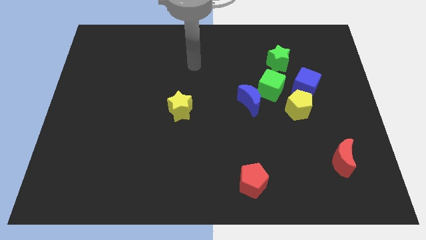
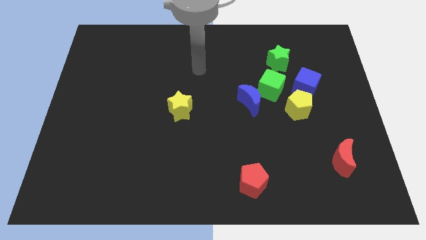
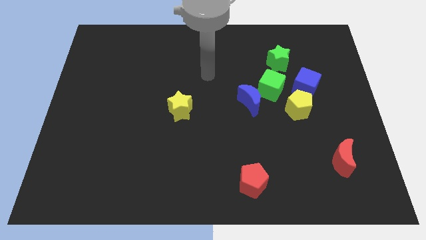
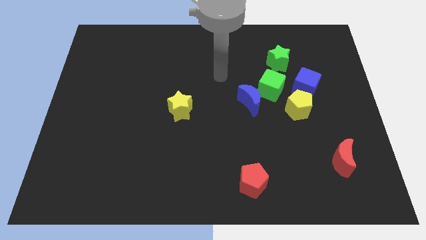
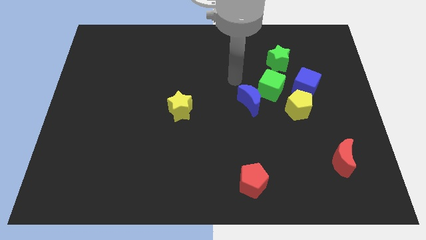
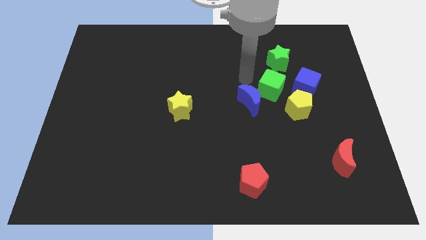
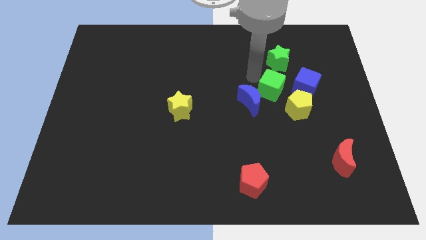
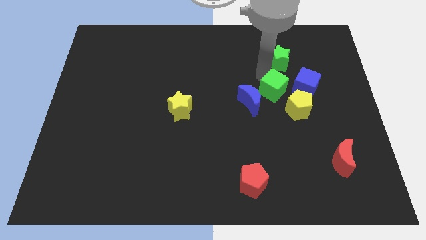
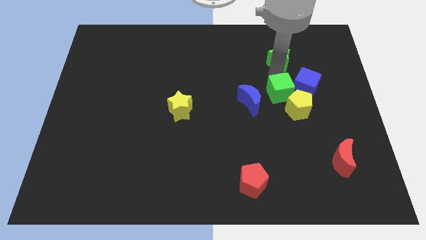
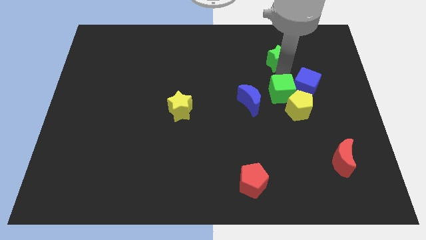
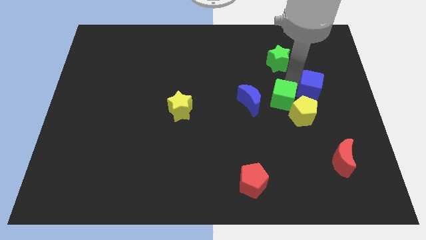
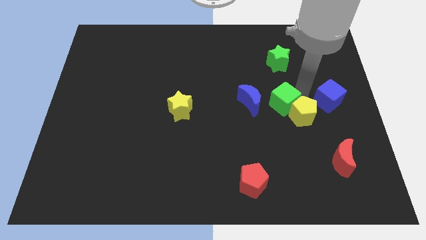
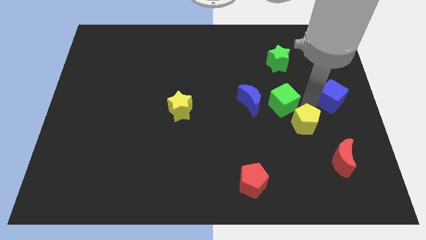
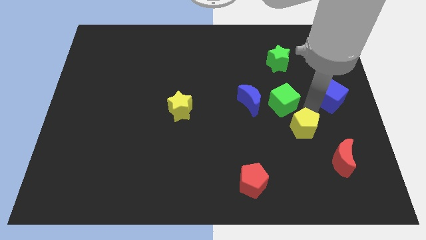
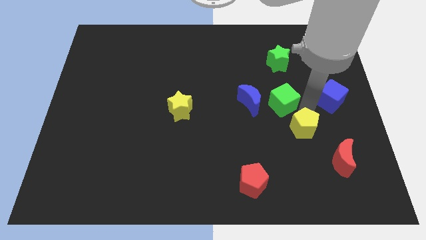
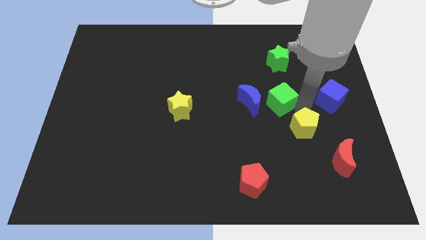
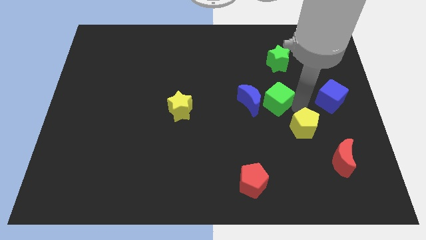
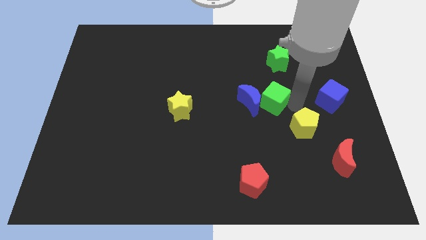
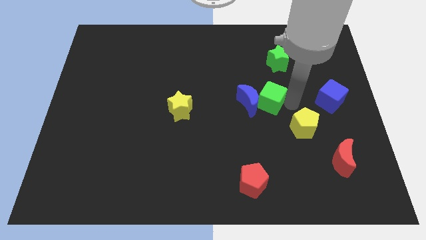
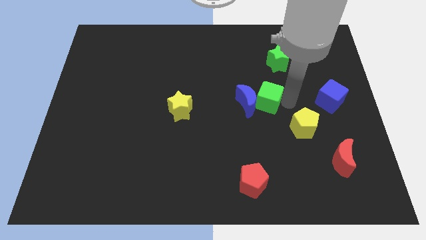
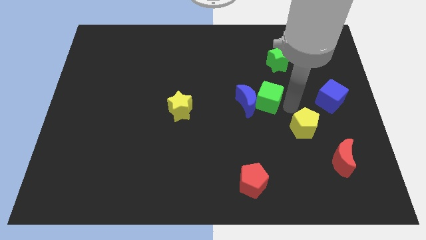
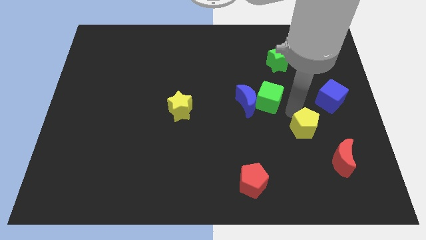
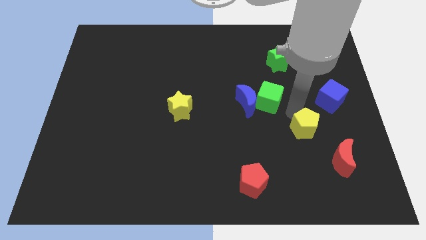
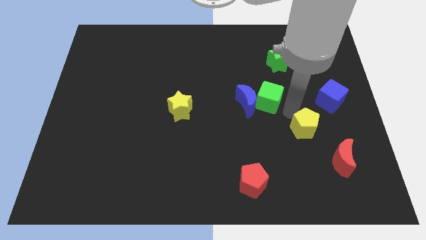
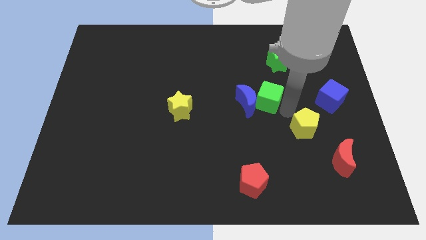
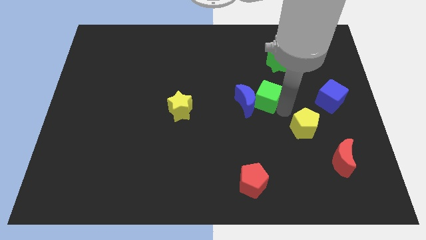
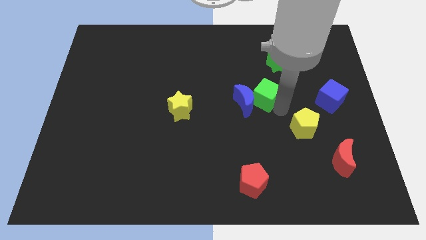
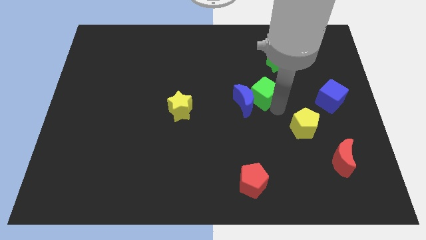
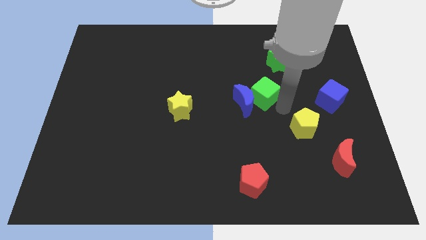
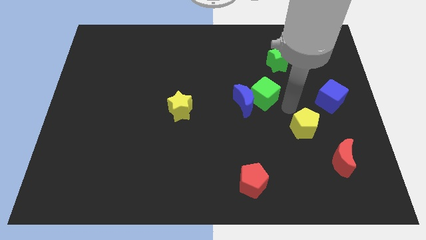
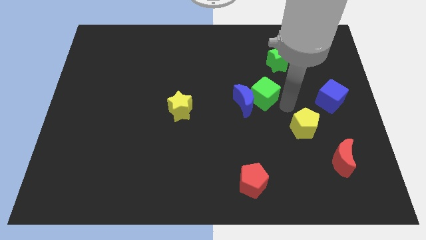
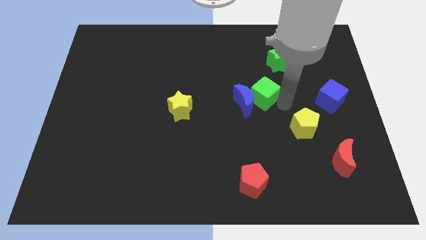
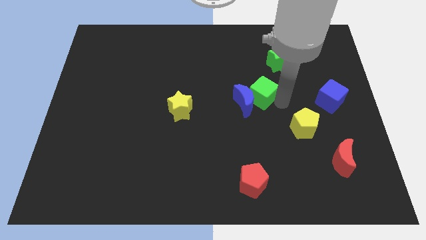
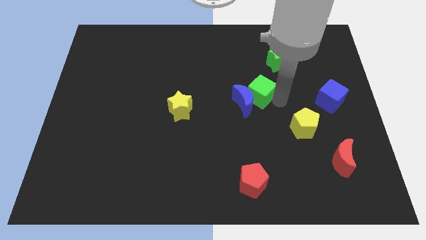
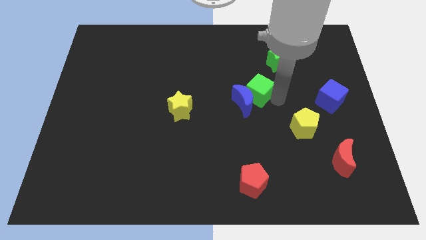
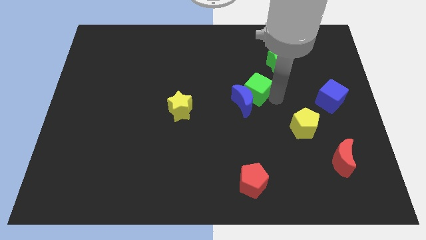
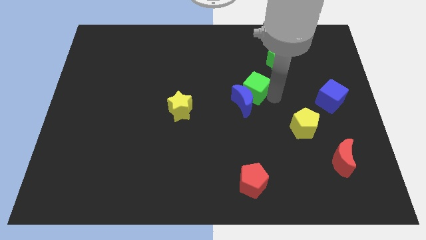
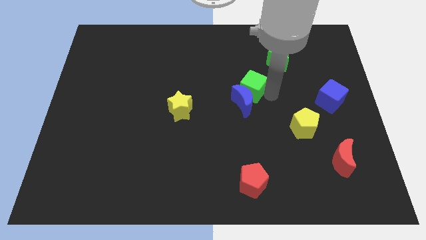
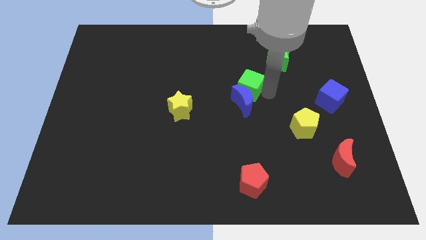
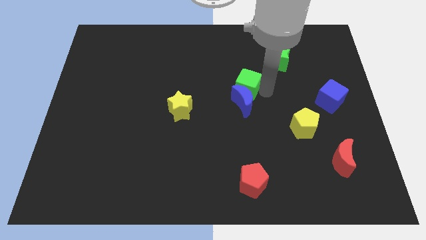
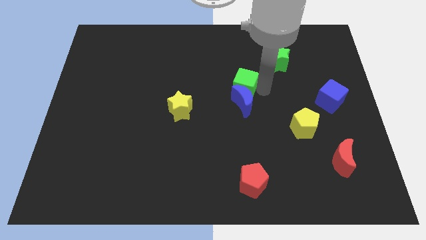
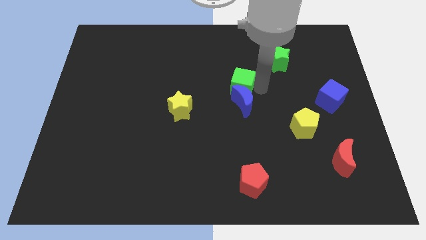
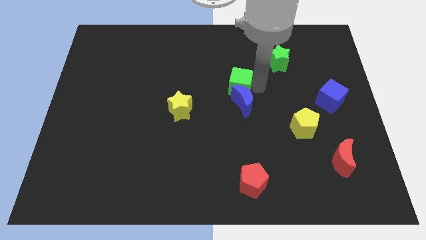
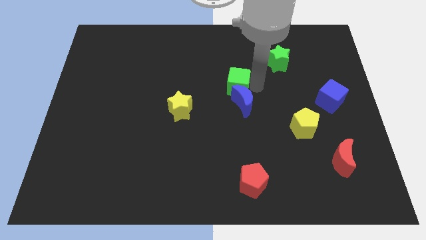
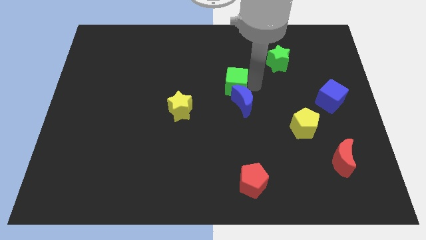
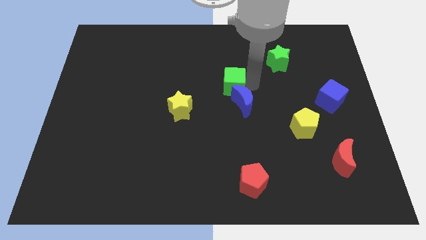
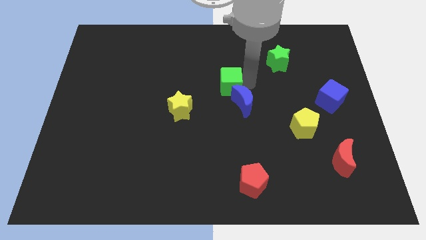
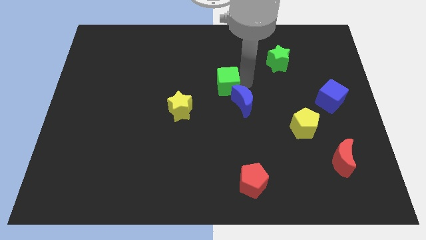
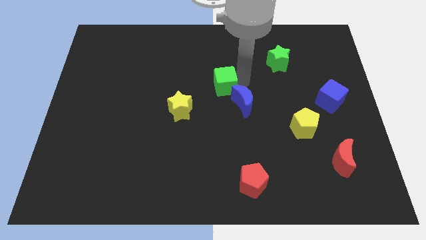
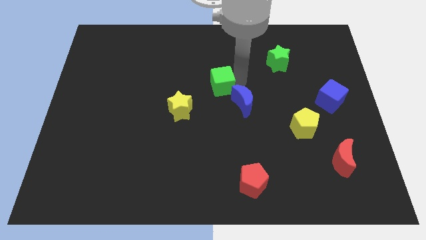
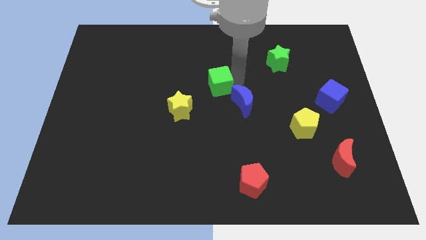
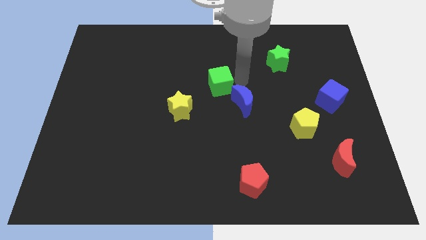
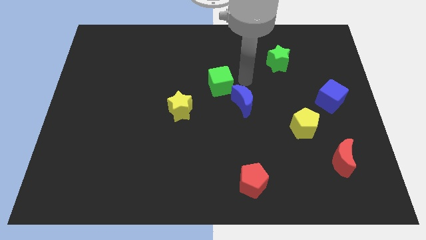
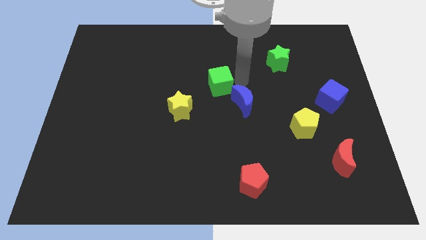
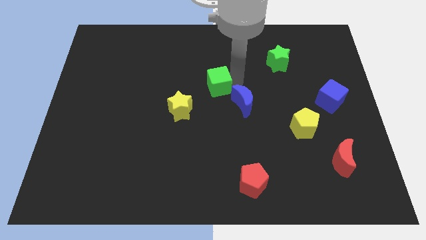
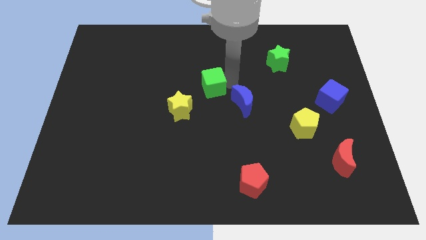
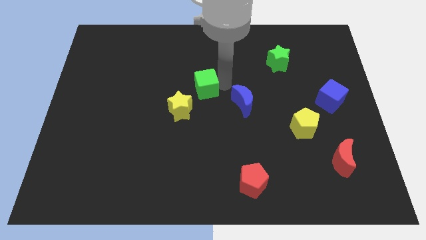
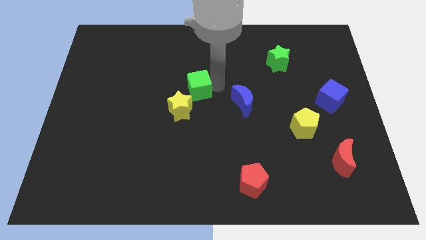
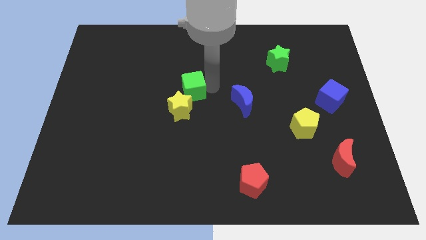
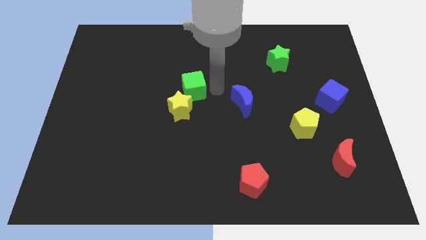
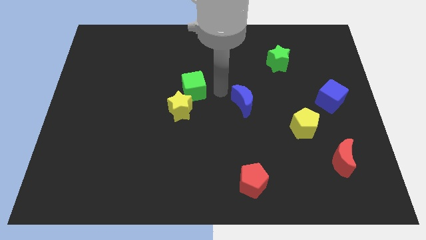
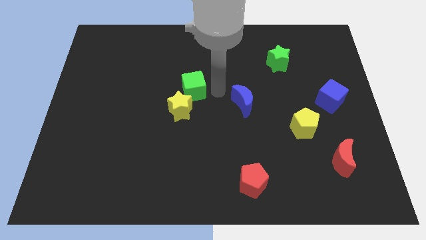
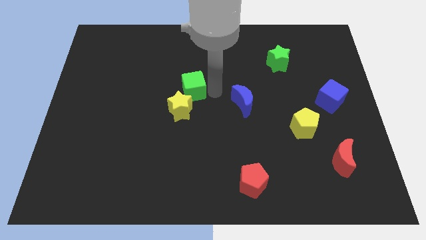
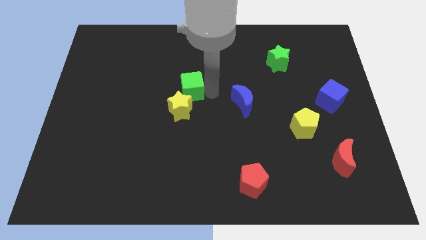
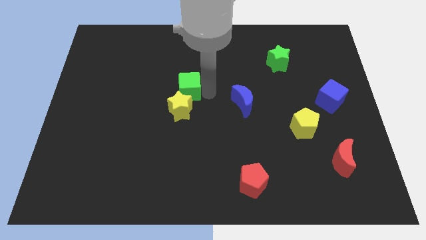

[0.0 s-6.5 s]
push the green cube to the left

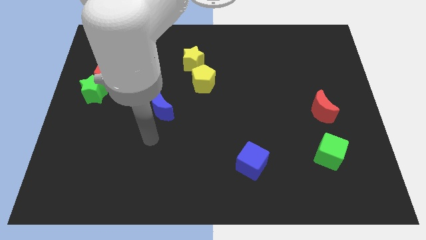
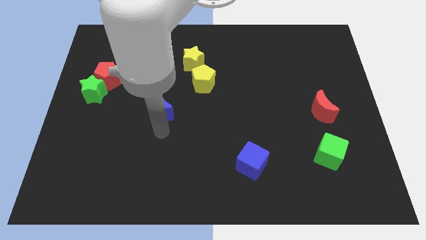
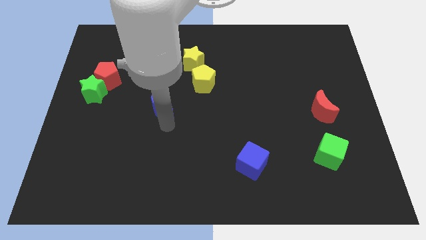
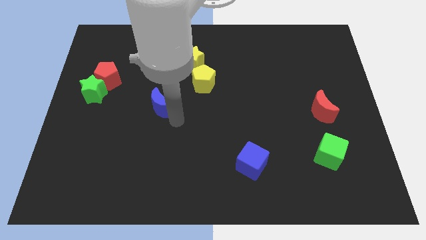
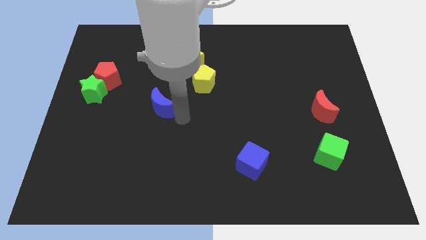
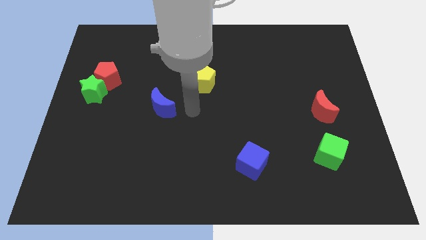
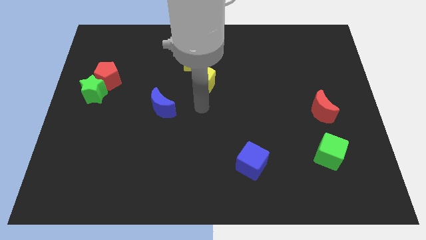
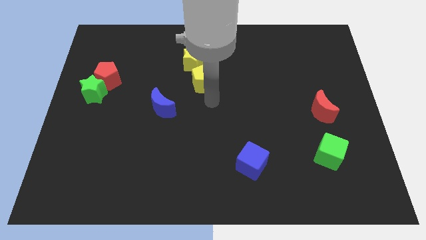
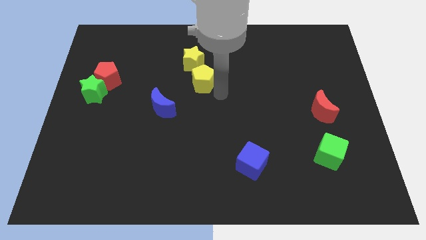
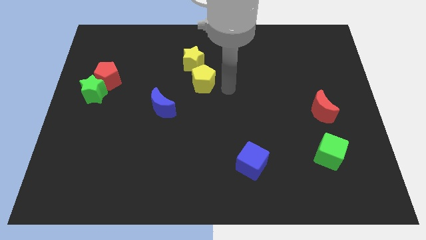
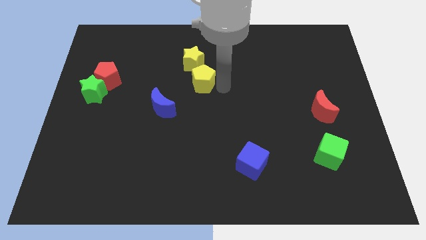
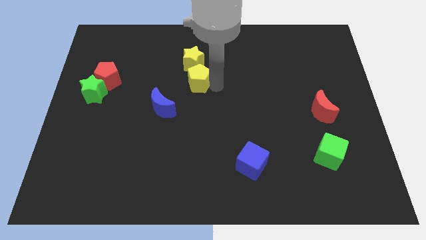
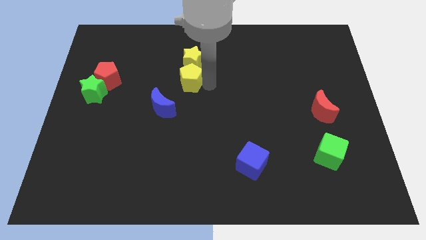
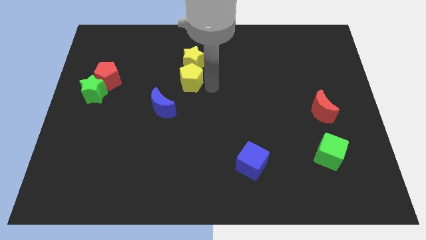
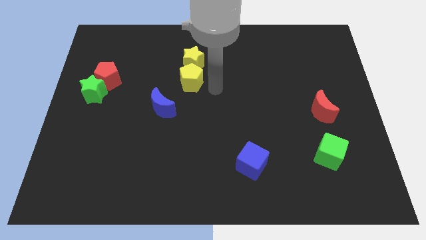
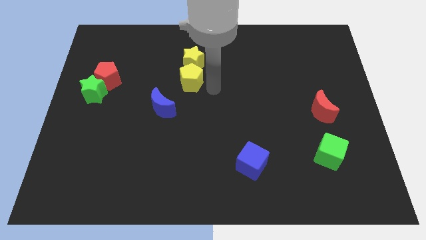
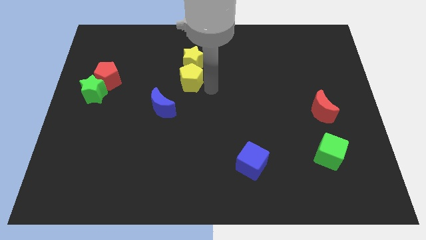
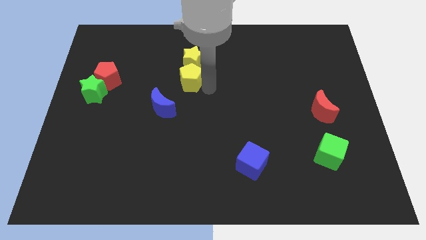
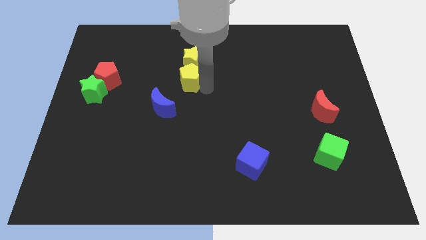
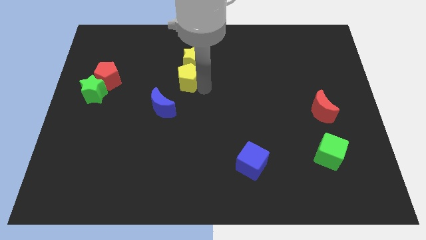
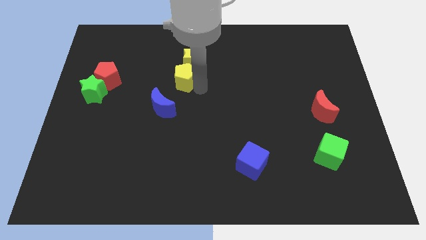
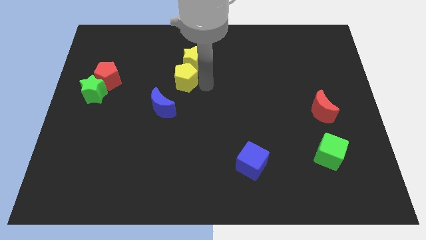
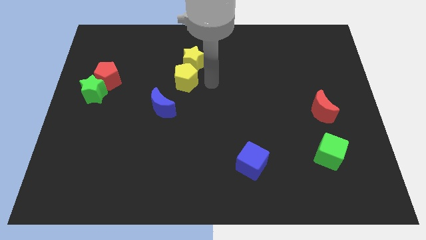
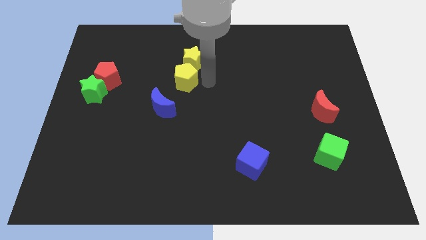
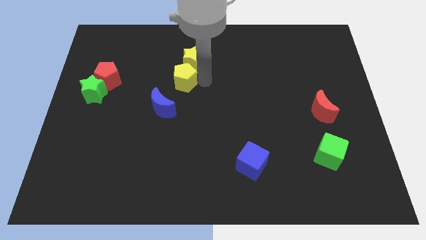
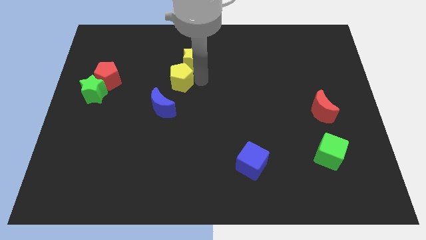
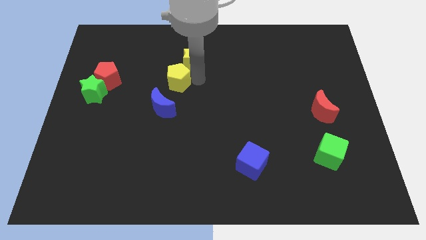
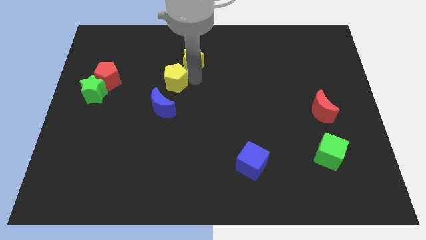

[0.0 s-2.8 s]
slightly move the yellow pentagon to the left
